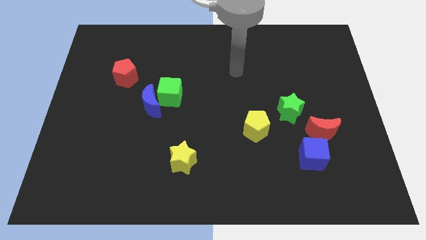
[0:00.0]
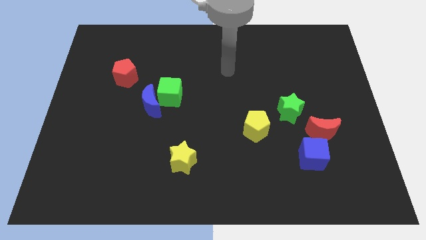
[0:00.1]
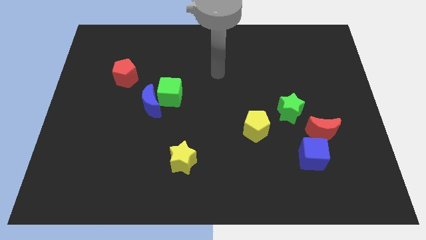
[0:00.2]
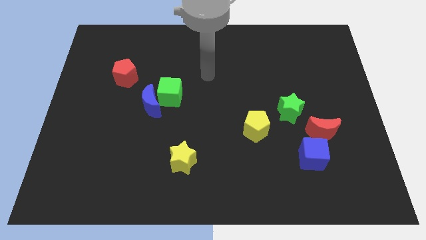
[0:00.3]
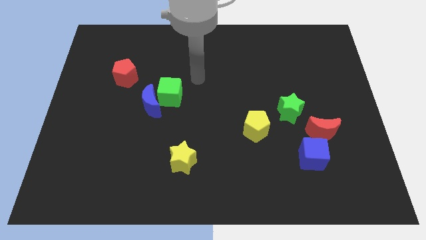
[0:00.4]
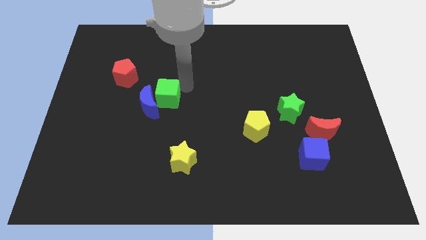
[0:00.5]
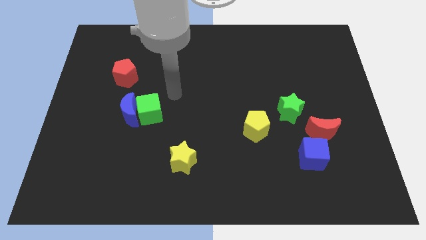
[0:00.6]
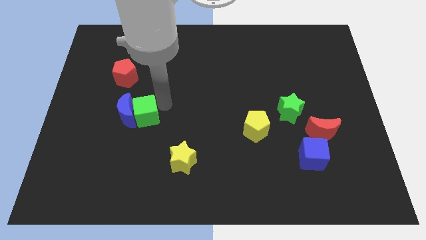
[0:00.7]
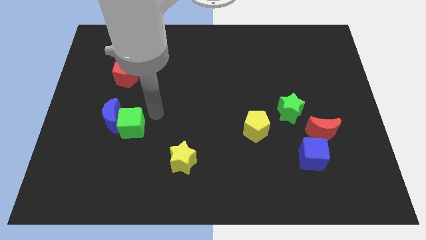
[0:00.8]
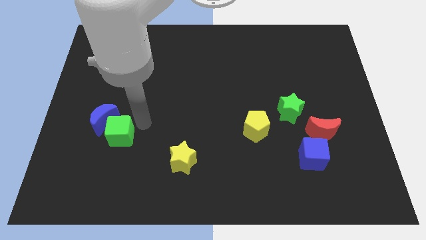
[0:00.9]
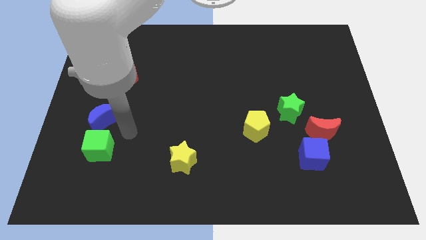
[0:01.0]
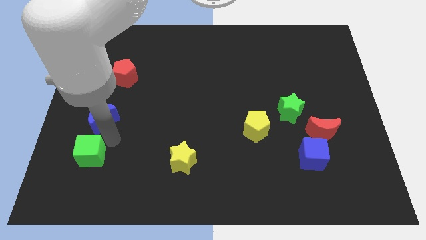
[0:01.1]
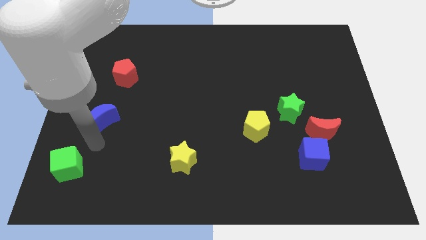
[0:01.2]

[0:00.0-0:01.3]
separate the blue moon from the green cube

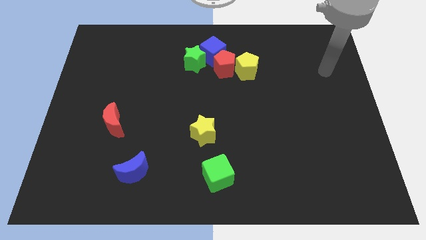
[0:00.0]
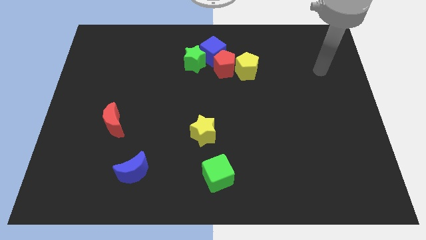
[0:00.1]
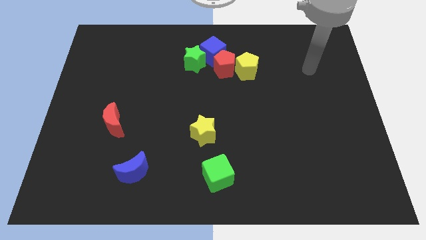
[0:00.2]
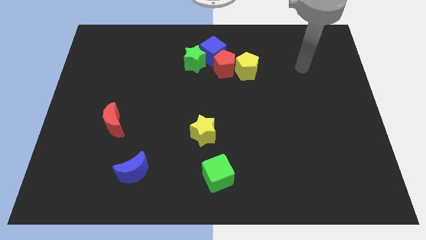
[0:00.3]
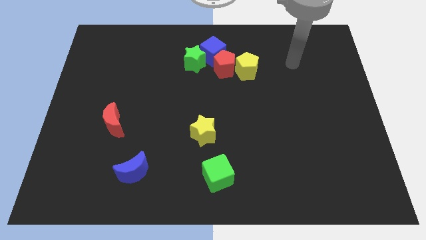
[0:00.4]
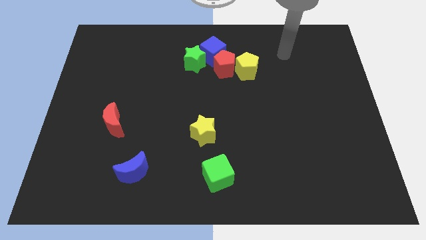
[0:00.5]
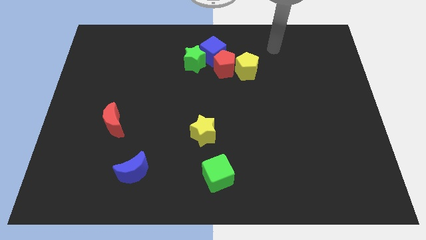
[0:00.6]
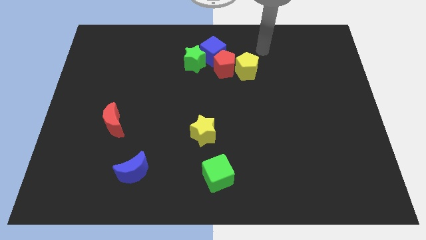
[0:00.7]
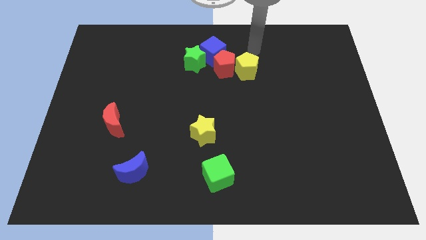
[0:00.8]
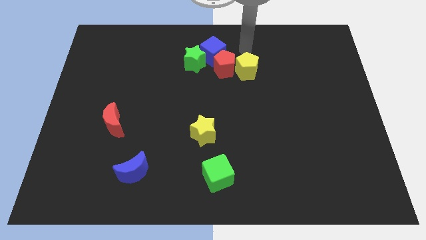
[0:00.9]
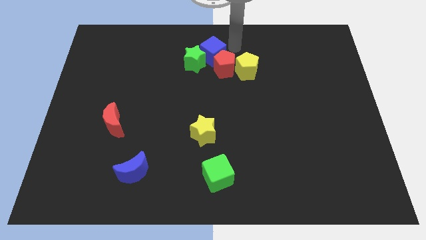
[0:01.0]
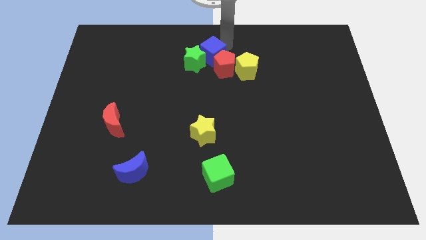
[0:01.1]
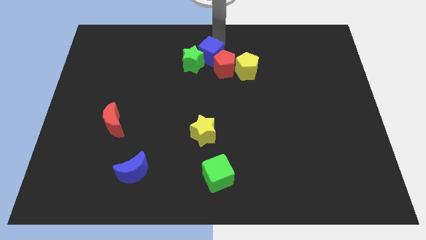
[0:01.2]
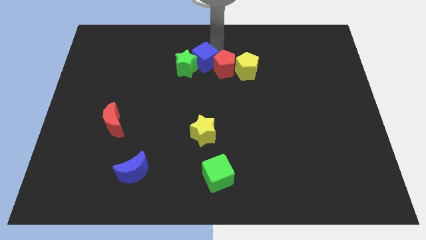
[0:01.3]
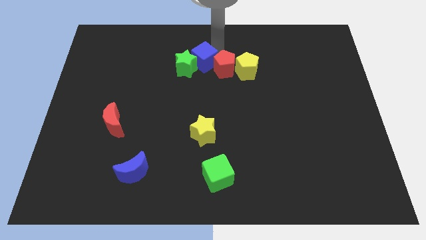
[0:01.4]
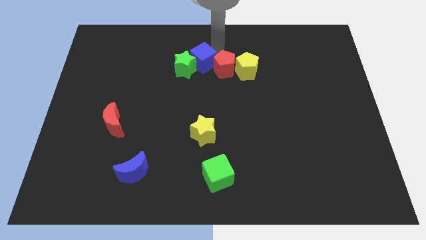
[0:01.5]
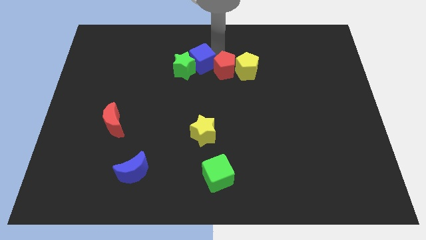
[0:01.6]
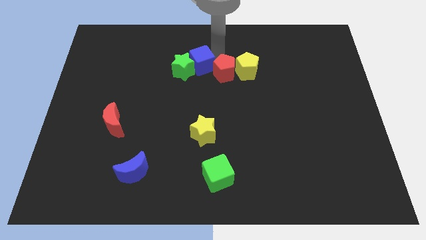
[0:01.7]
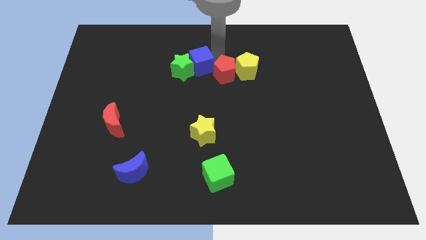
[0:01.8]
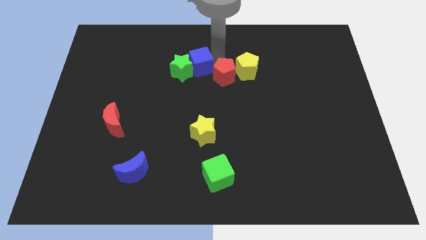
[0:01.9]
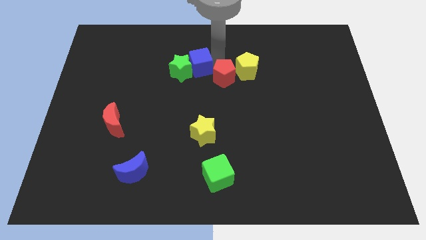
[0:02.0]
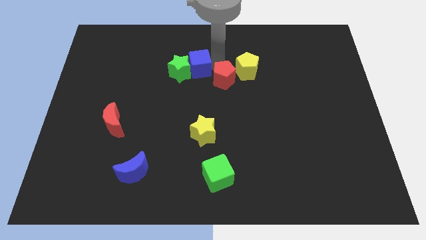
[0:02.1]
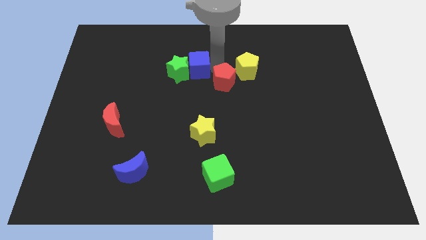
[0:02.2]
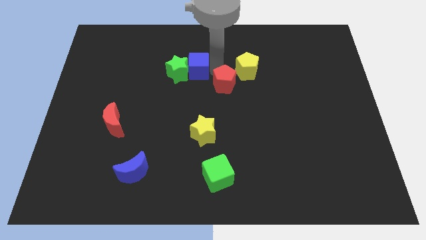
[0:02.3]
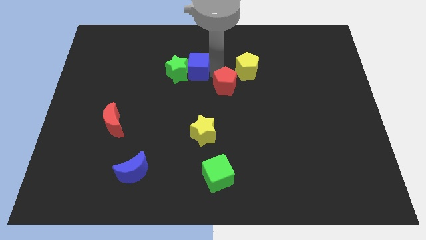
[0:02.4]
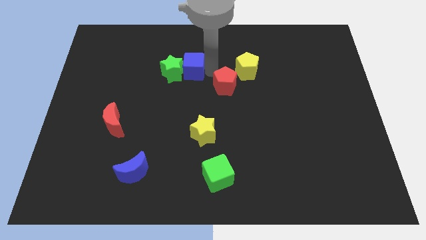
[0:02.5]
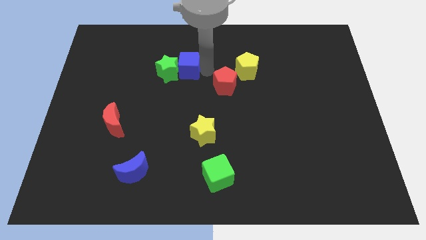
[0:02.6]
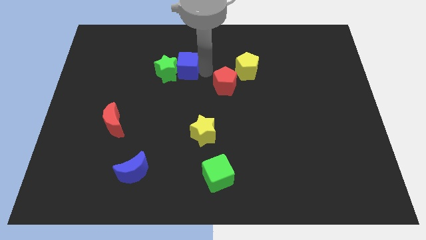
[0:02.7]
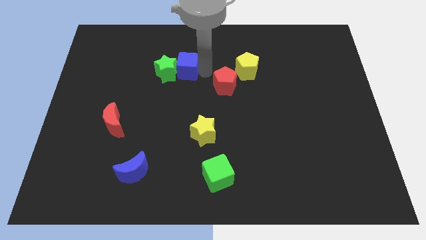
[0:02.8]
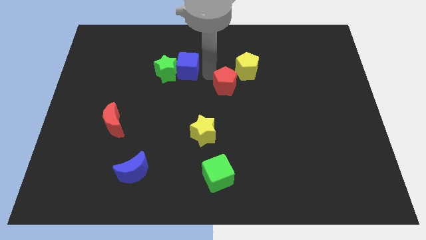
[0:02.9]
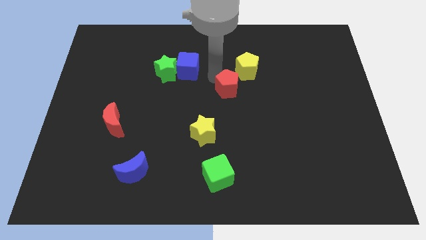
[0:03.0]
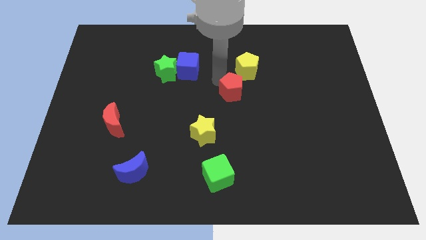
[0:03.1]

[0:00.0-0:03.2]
separate the red pentagon from the group

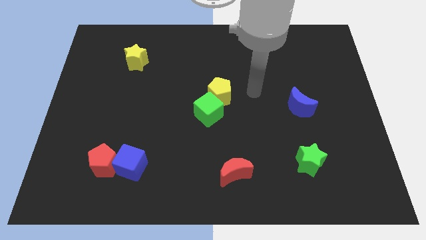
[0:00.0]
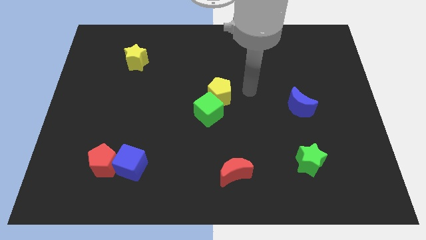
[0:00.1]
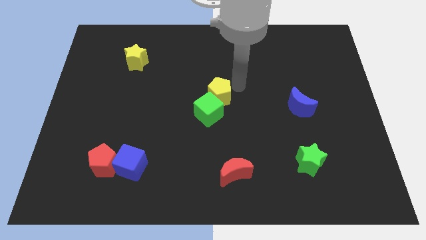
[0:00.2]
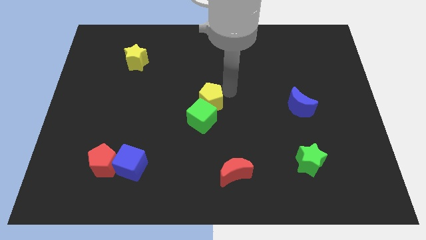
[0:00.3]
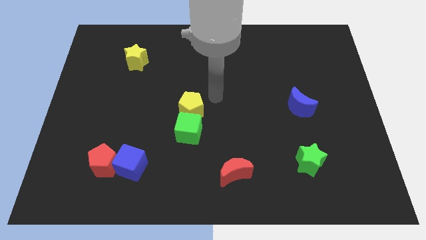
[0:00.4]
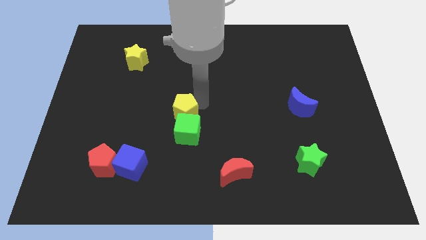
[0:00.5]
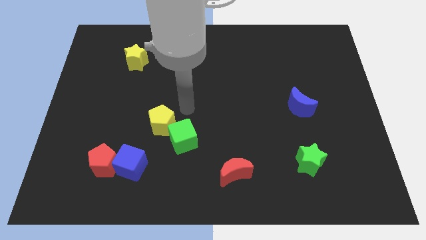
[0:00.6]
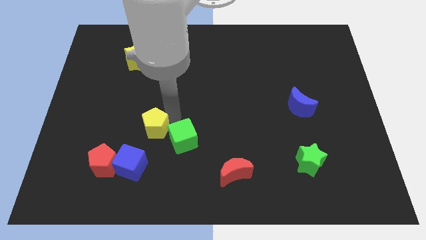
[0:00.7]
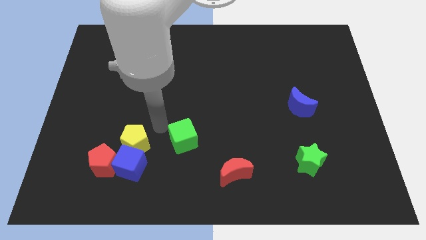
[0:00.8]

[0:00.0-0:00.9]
separate the green cube from the yellow pentagon

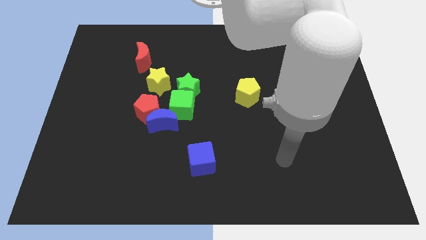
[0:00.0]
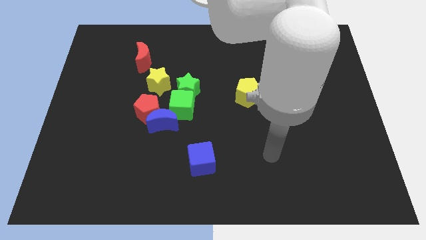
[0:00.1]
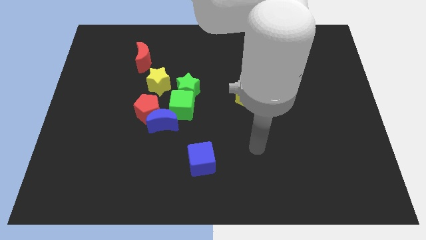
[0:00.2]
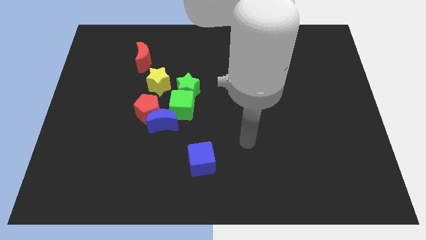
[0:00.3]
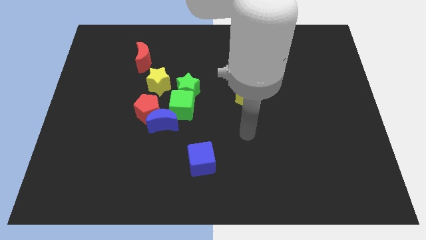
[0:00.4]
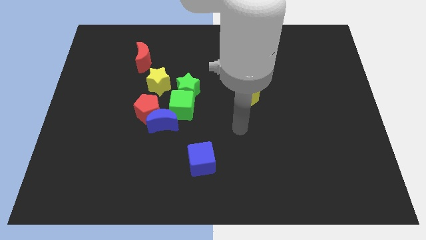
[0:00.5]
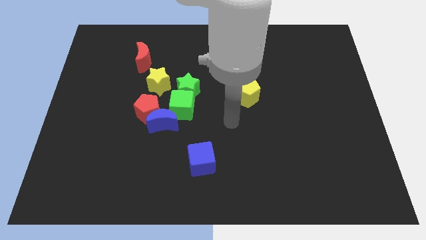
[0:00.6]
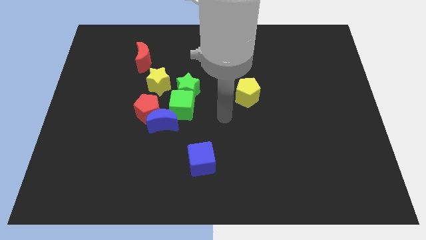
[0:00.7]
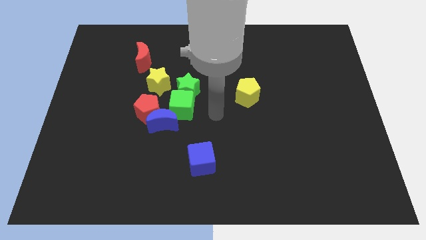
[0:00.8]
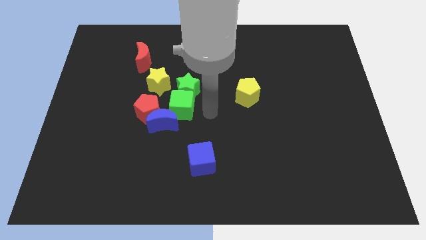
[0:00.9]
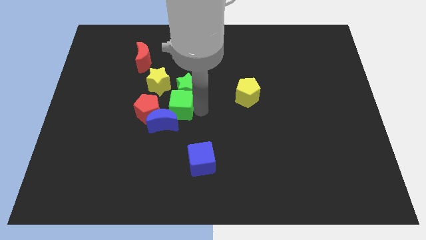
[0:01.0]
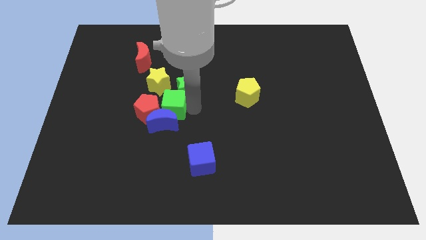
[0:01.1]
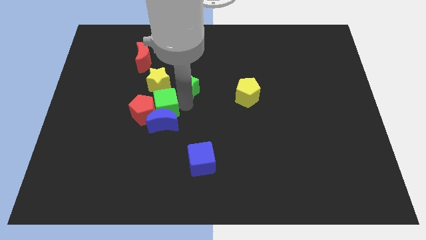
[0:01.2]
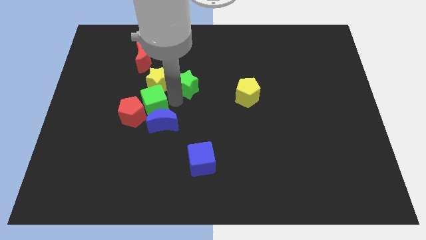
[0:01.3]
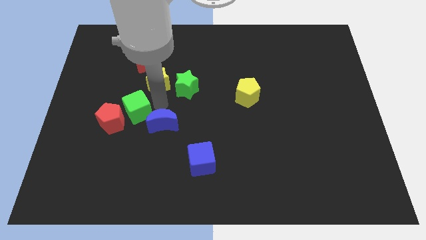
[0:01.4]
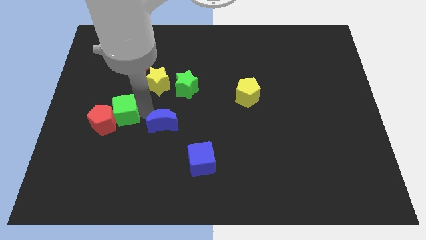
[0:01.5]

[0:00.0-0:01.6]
move the blue moon away from the red pentagon and green cube

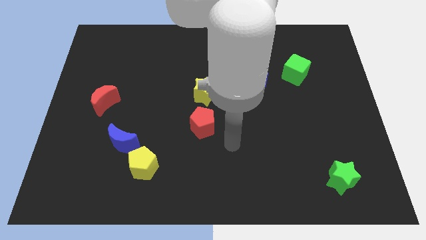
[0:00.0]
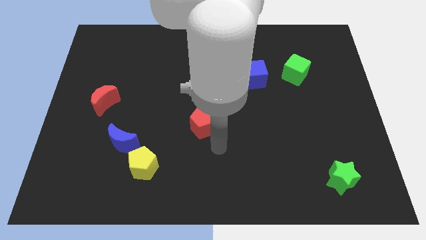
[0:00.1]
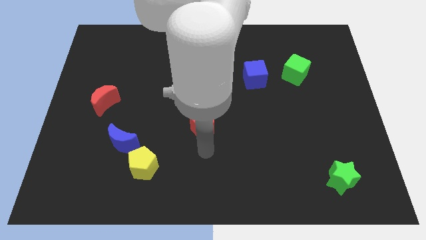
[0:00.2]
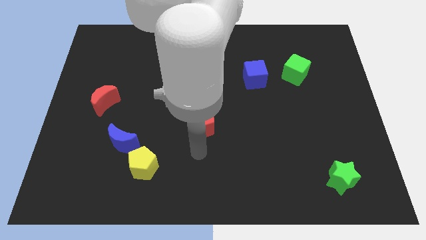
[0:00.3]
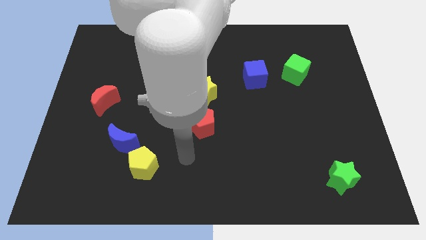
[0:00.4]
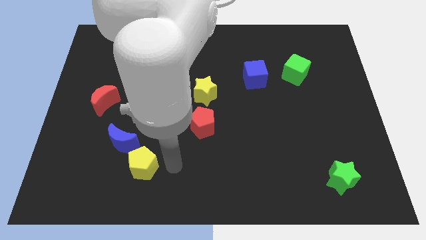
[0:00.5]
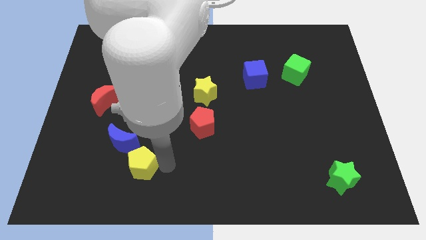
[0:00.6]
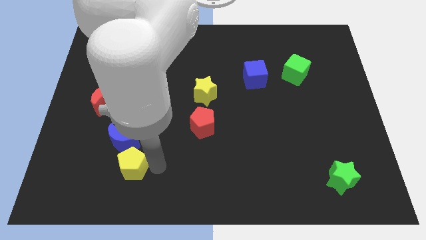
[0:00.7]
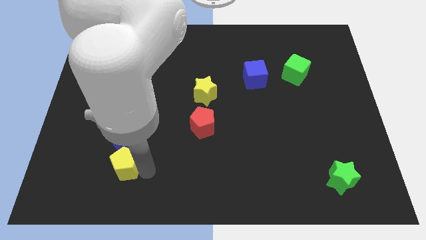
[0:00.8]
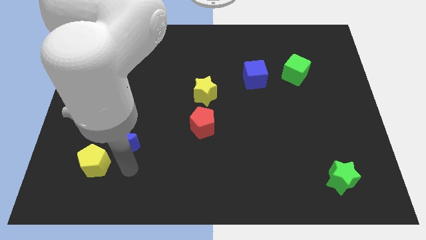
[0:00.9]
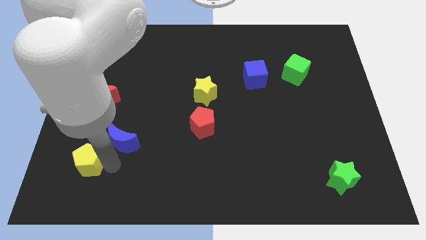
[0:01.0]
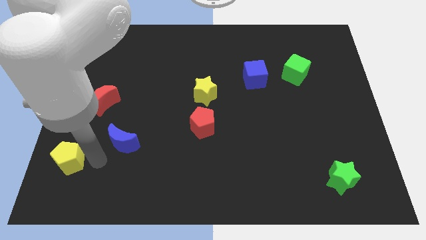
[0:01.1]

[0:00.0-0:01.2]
pull the blue moon apart from the yellow pentagon

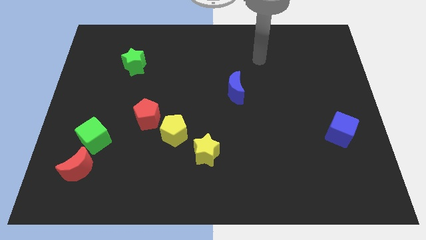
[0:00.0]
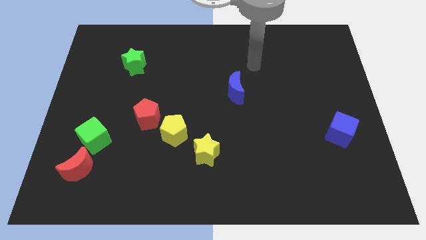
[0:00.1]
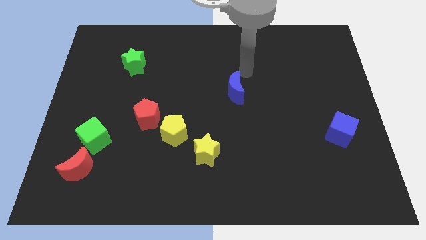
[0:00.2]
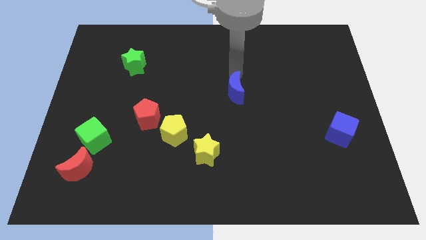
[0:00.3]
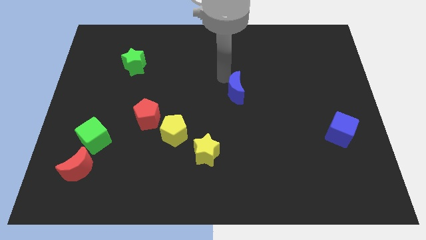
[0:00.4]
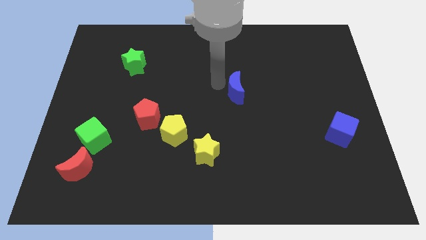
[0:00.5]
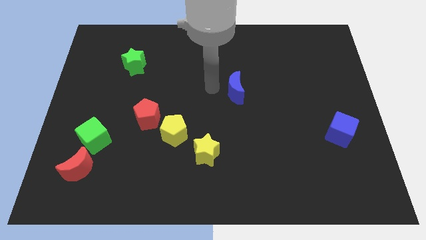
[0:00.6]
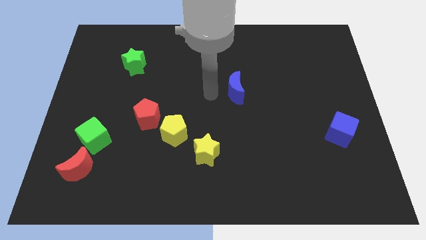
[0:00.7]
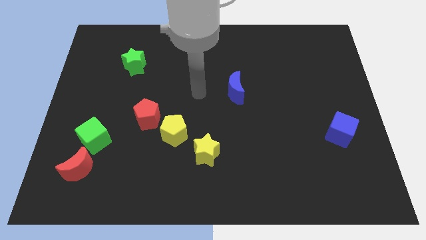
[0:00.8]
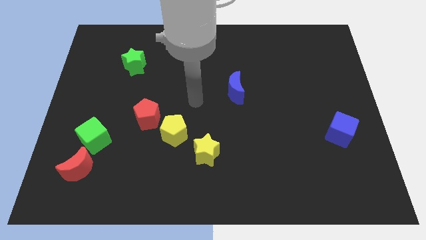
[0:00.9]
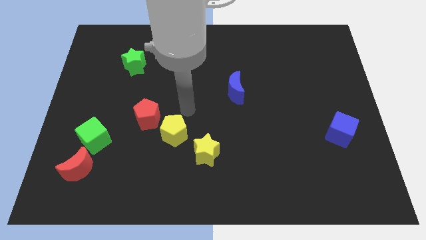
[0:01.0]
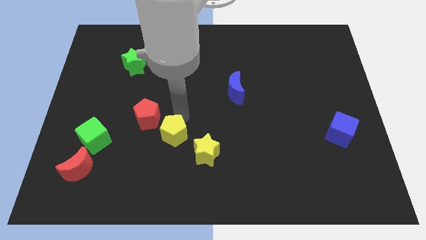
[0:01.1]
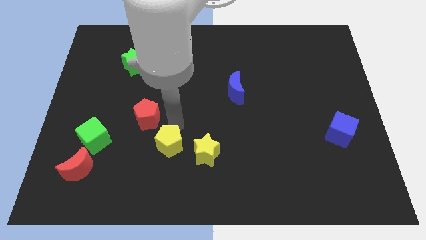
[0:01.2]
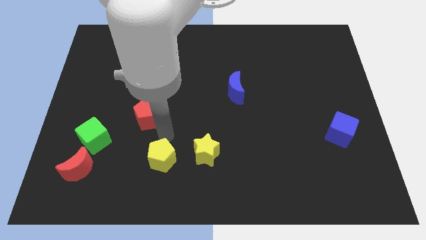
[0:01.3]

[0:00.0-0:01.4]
pull the red pentagon apart from the yellow pentagon
